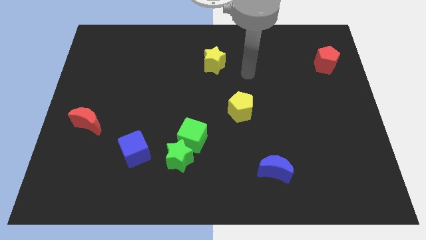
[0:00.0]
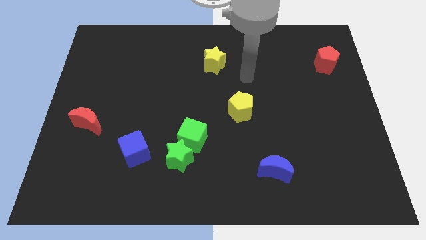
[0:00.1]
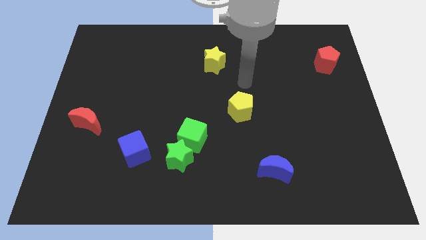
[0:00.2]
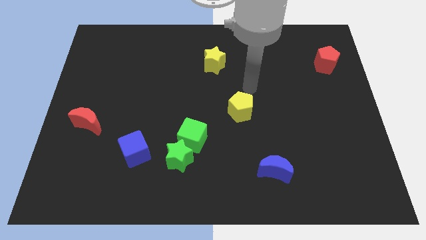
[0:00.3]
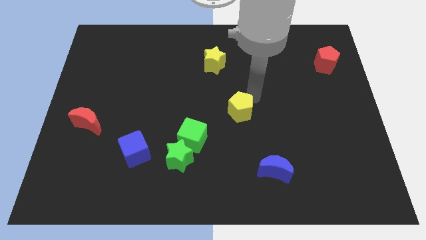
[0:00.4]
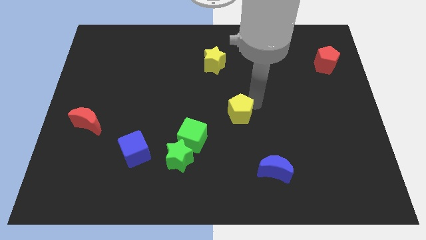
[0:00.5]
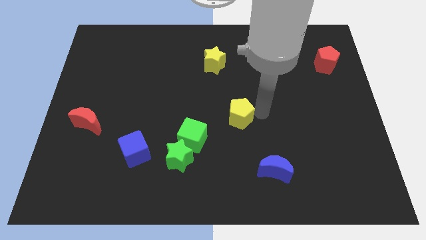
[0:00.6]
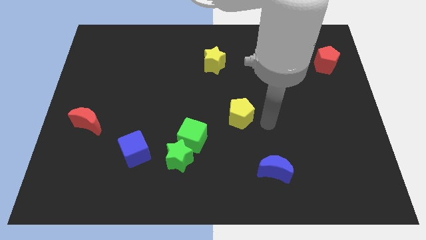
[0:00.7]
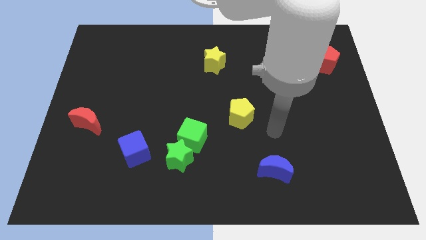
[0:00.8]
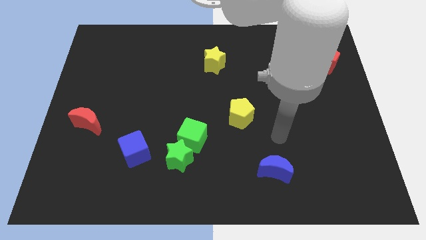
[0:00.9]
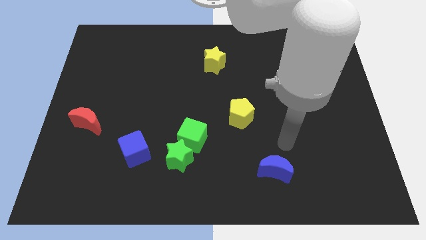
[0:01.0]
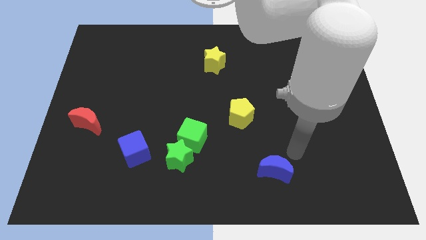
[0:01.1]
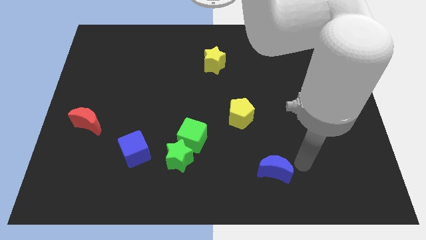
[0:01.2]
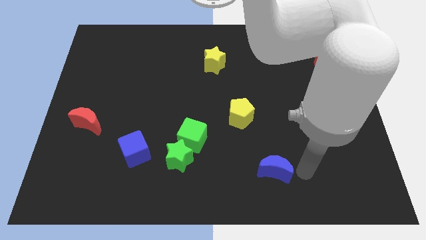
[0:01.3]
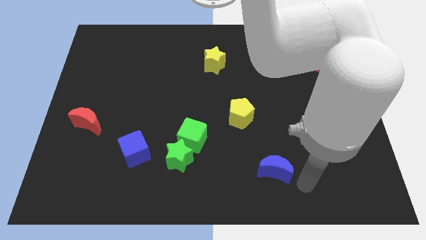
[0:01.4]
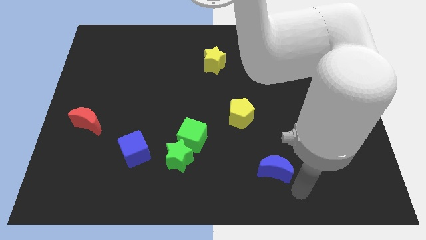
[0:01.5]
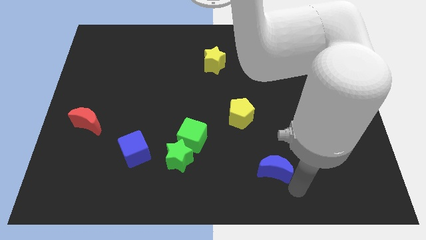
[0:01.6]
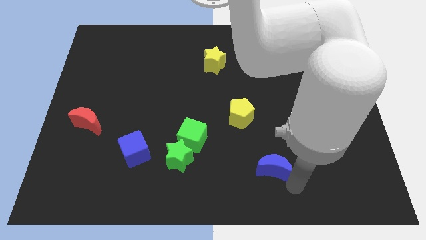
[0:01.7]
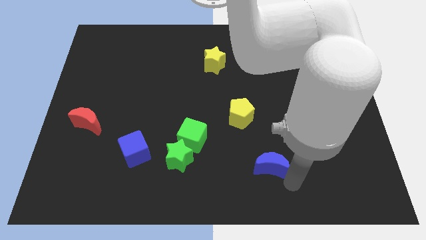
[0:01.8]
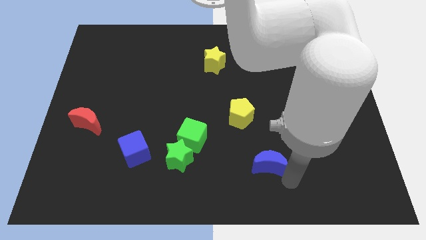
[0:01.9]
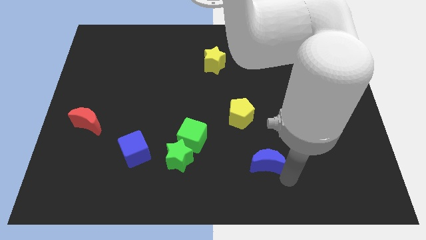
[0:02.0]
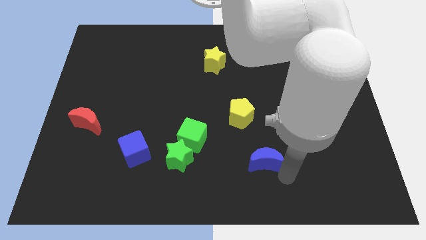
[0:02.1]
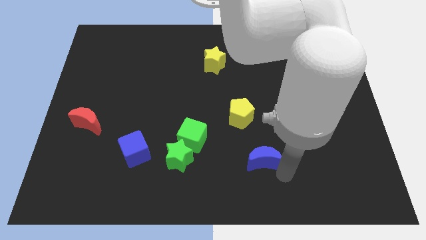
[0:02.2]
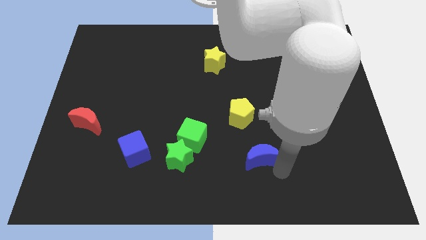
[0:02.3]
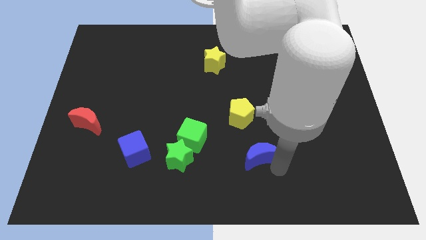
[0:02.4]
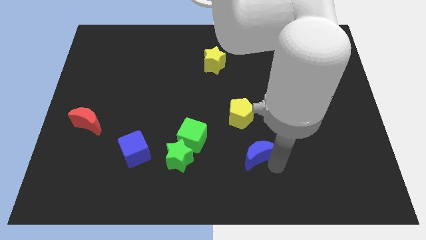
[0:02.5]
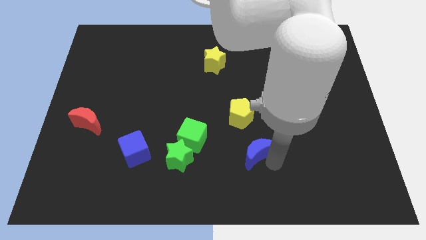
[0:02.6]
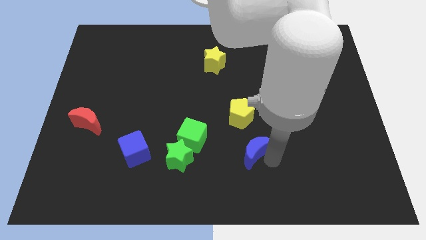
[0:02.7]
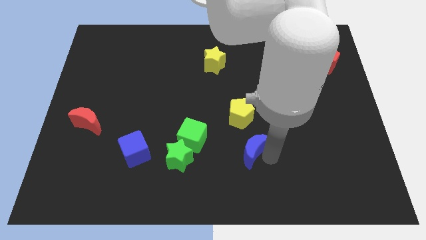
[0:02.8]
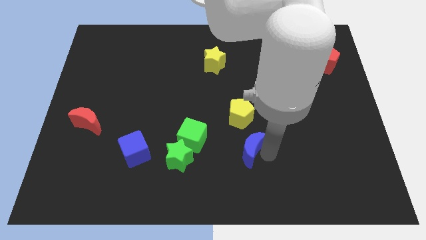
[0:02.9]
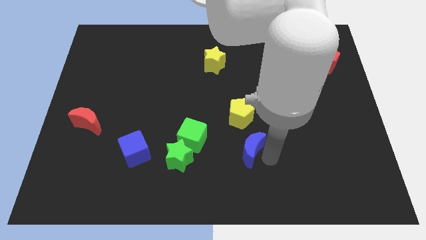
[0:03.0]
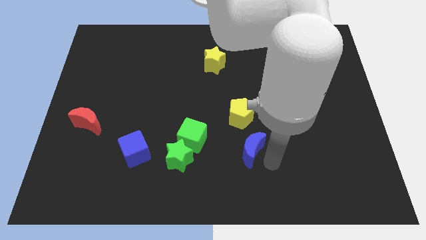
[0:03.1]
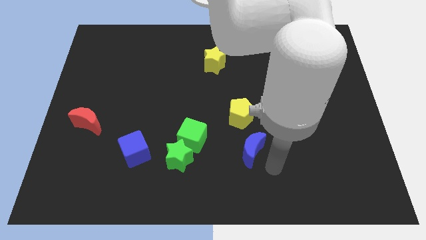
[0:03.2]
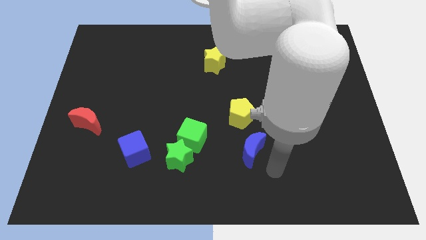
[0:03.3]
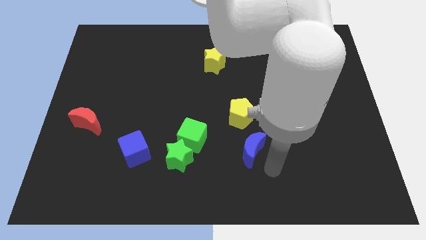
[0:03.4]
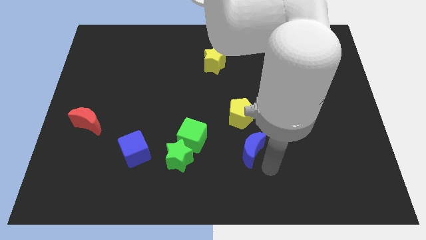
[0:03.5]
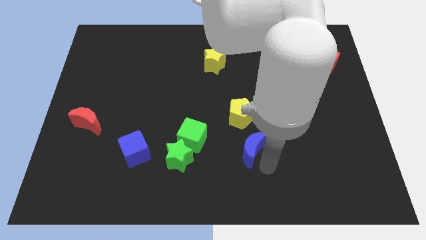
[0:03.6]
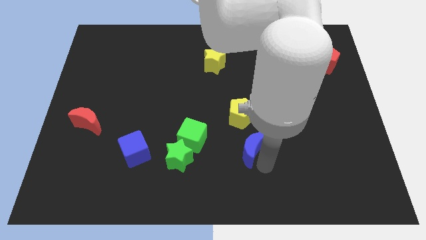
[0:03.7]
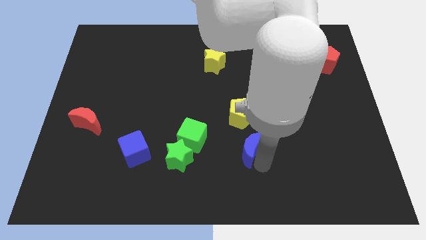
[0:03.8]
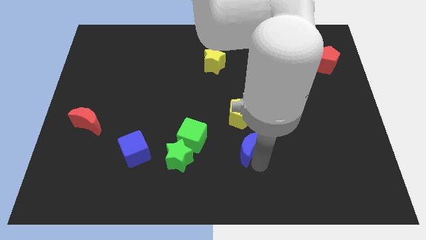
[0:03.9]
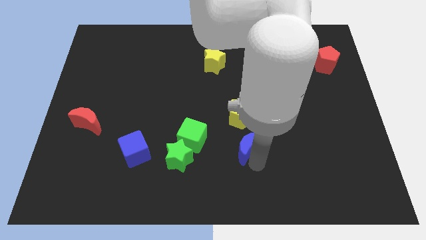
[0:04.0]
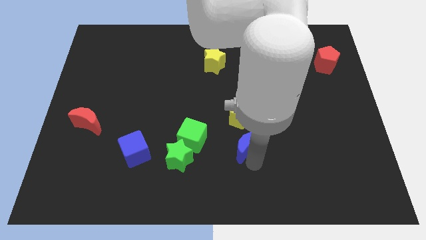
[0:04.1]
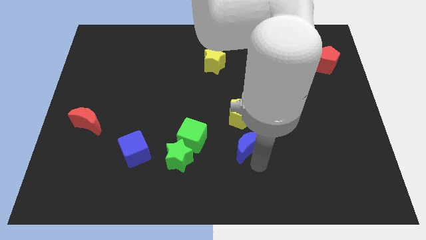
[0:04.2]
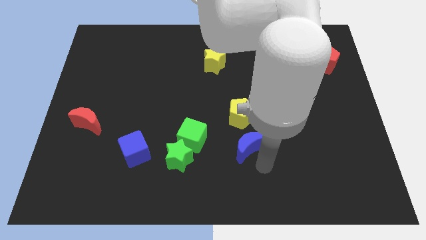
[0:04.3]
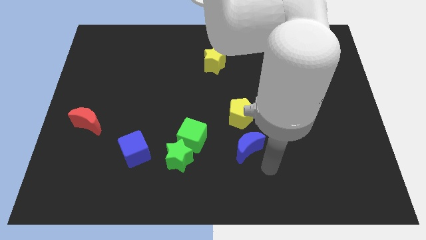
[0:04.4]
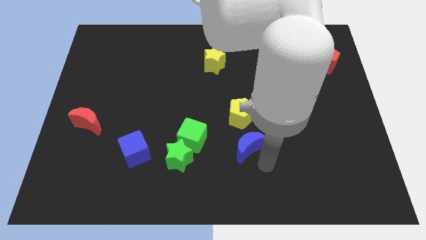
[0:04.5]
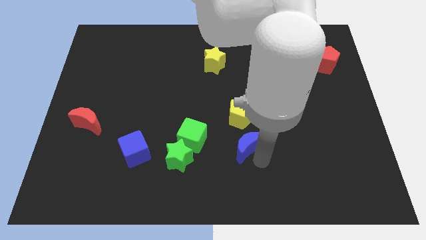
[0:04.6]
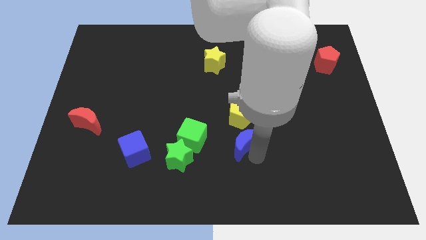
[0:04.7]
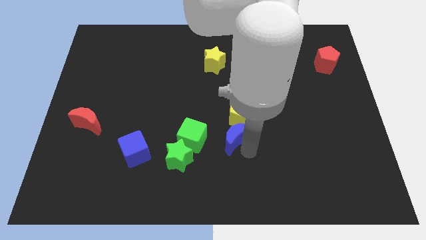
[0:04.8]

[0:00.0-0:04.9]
put the blue moon to the center

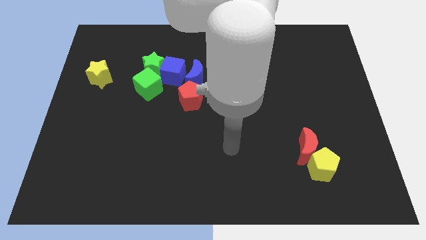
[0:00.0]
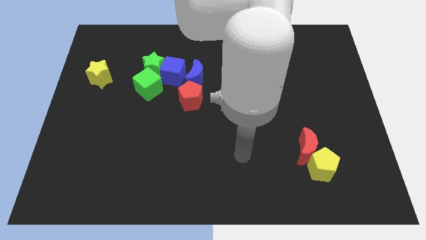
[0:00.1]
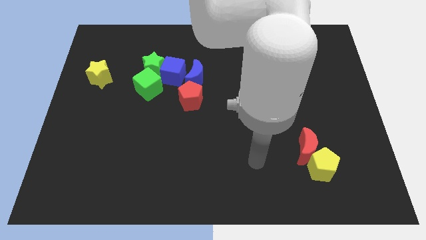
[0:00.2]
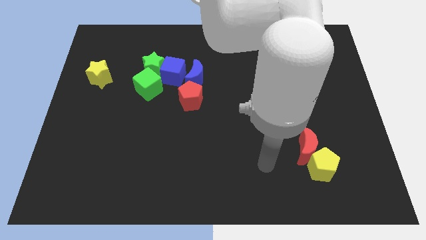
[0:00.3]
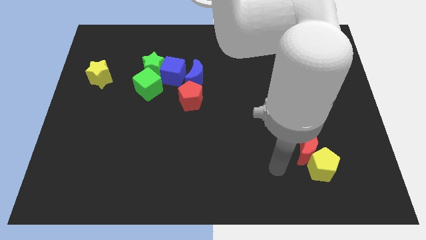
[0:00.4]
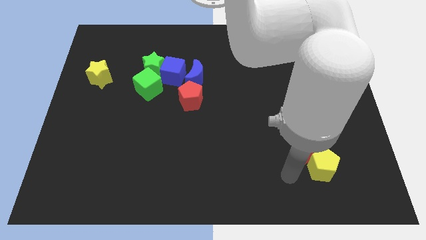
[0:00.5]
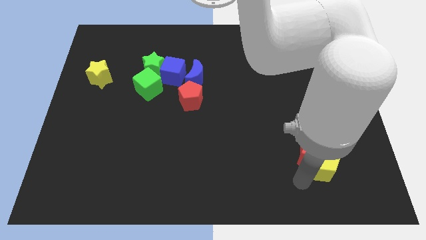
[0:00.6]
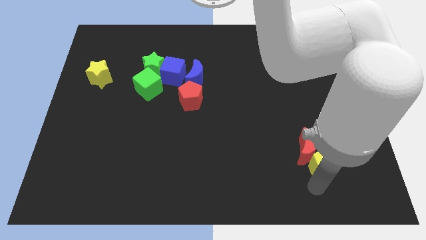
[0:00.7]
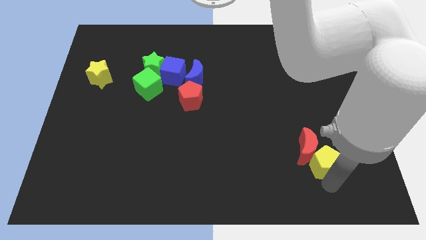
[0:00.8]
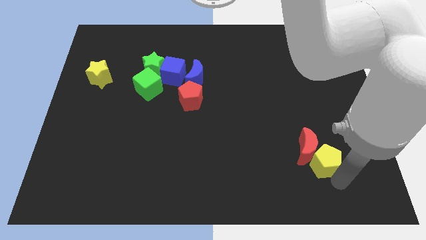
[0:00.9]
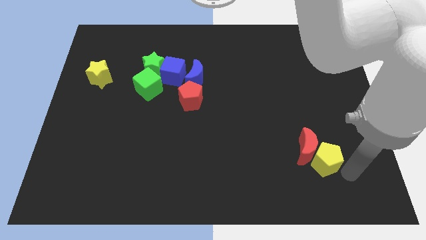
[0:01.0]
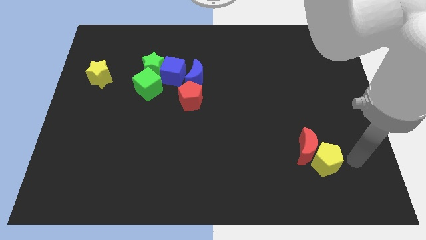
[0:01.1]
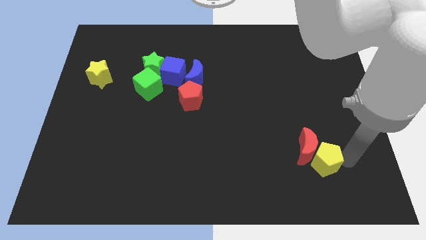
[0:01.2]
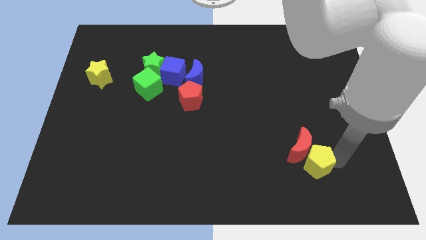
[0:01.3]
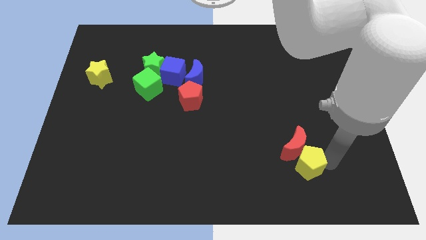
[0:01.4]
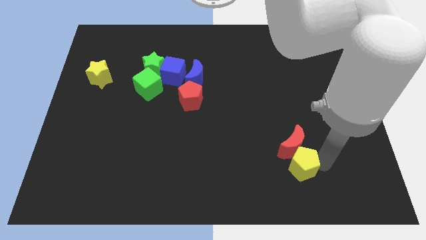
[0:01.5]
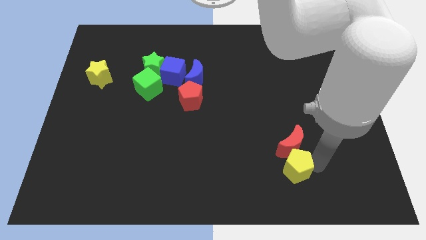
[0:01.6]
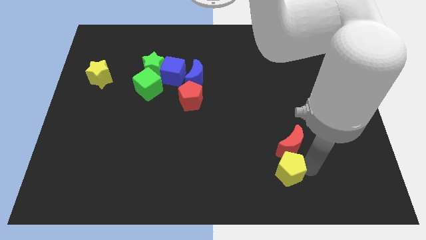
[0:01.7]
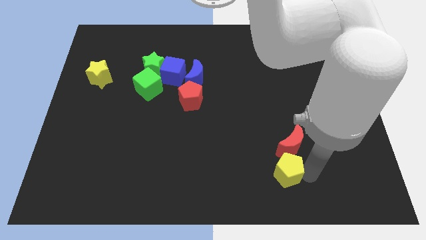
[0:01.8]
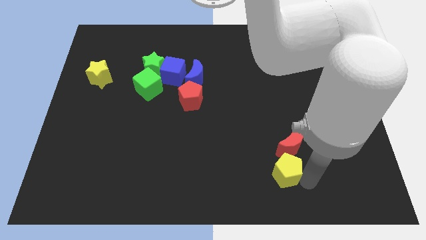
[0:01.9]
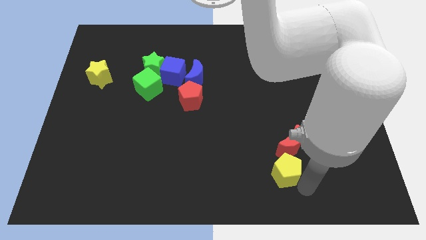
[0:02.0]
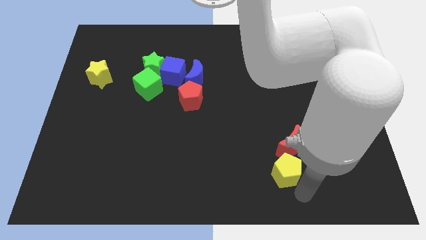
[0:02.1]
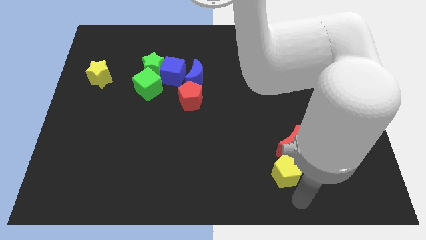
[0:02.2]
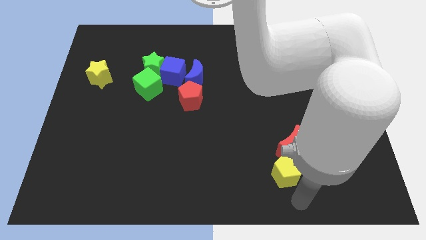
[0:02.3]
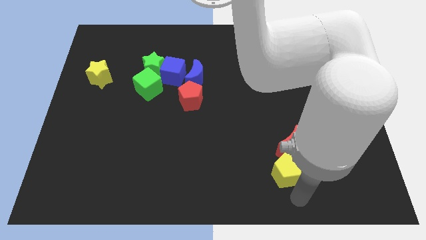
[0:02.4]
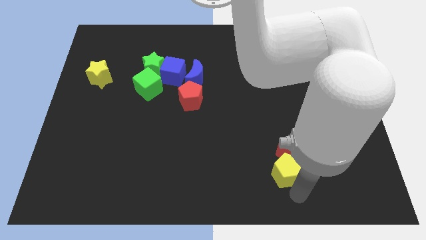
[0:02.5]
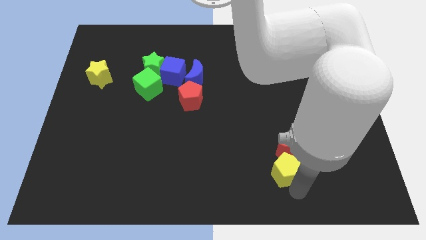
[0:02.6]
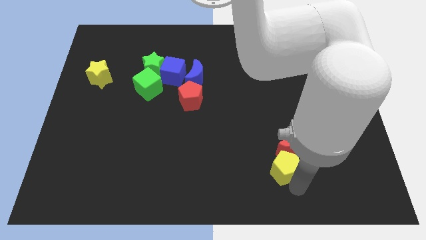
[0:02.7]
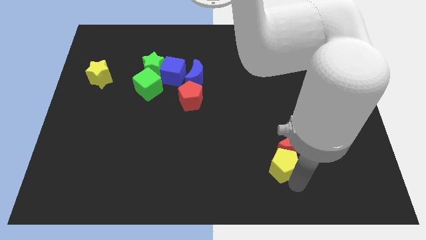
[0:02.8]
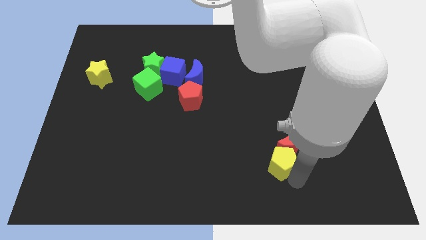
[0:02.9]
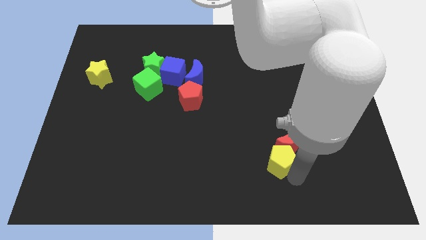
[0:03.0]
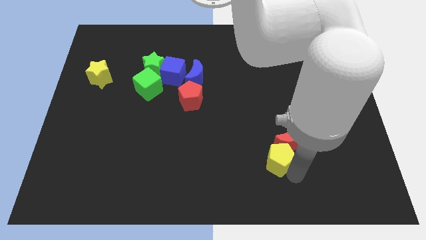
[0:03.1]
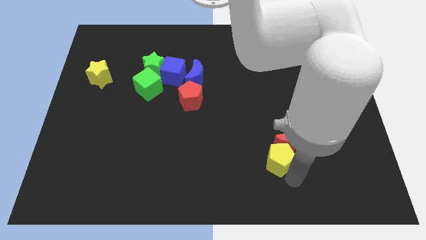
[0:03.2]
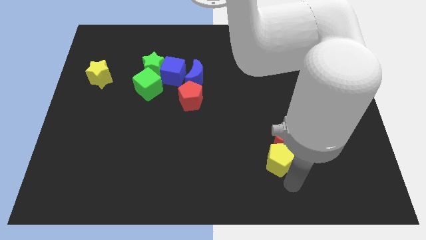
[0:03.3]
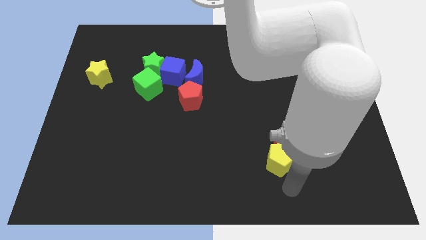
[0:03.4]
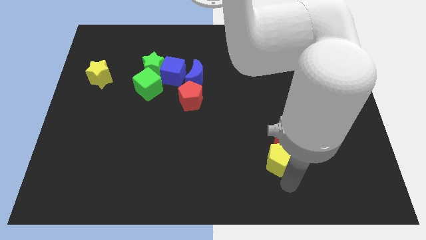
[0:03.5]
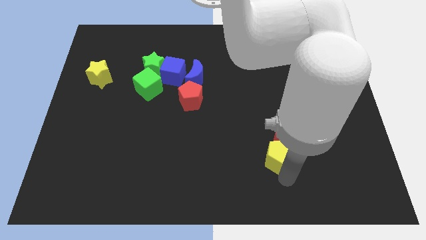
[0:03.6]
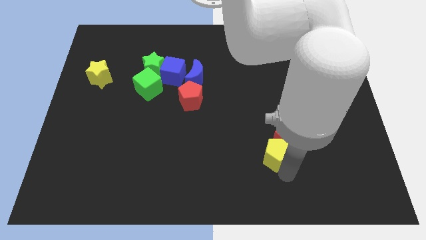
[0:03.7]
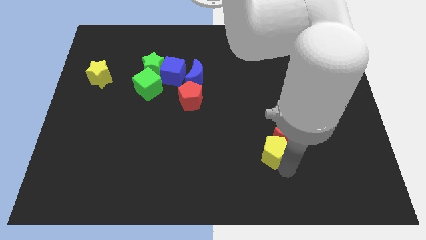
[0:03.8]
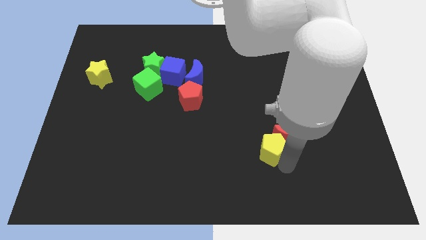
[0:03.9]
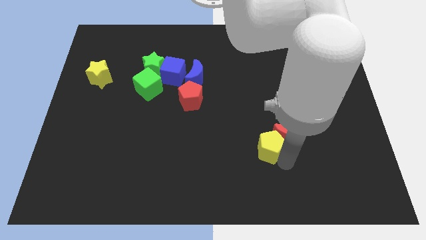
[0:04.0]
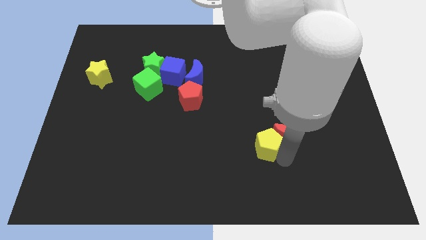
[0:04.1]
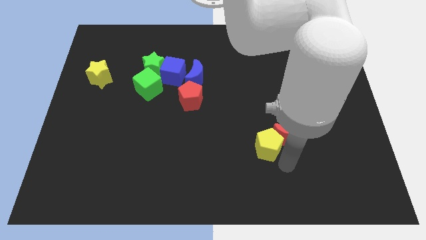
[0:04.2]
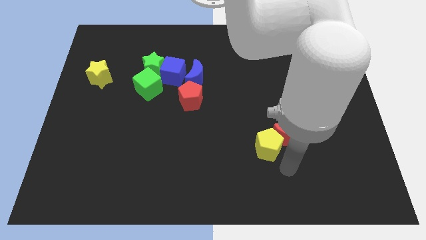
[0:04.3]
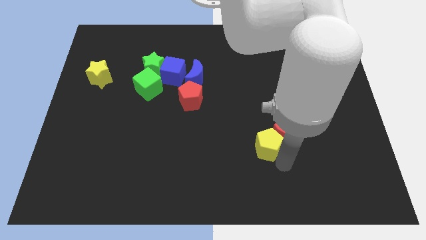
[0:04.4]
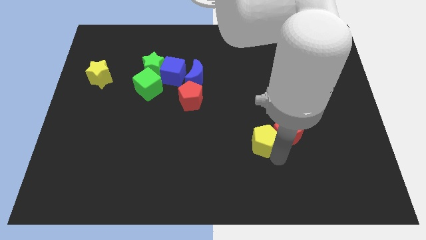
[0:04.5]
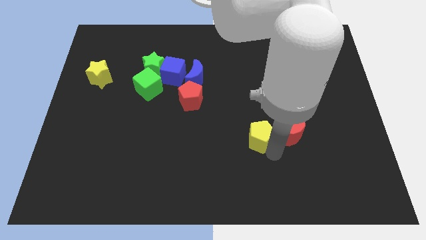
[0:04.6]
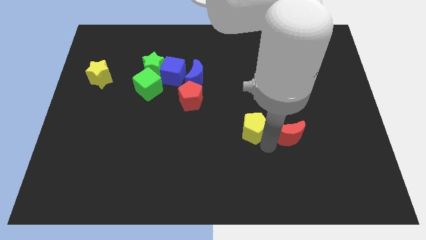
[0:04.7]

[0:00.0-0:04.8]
move the yellow pentagon to the center
